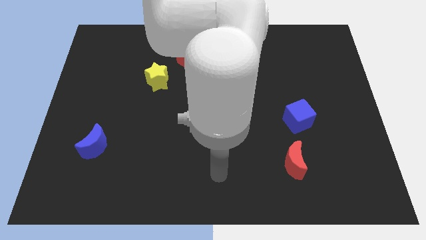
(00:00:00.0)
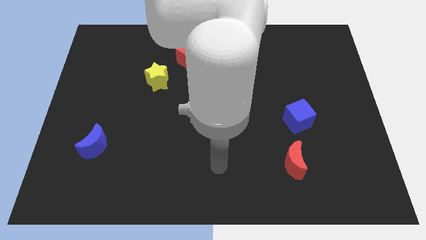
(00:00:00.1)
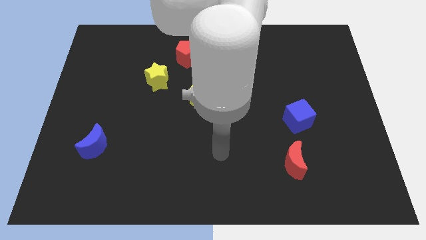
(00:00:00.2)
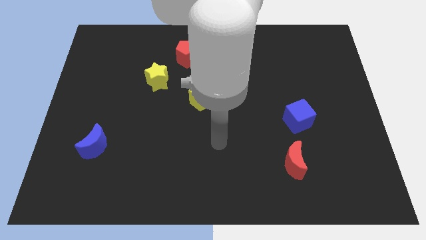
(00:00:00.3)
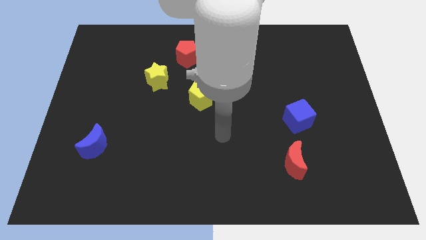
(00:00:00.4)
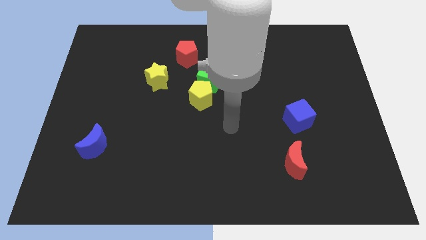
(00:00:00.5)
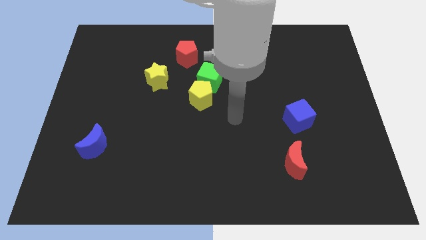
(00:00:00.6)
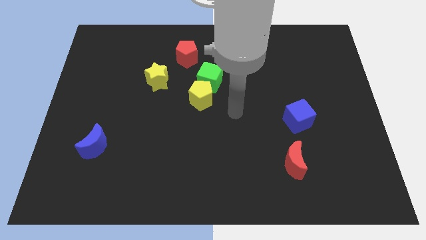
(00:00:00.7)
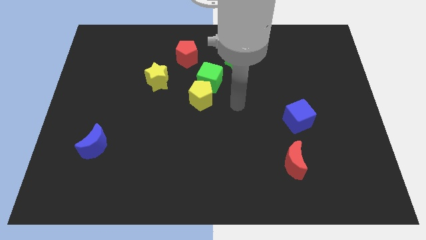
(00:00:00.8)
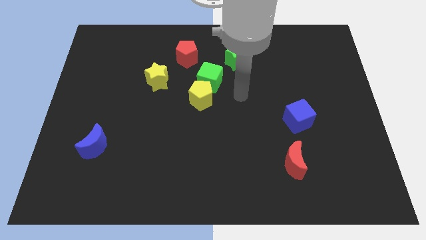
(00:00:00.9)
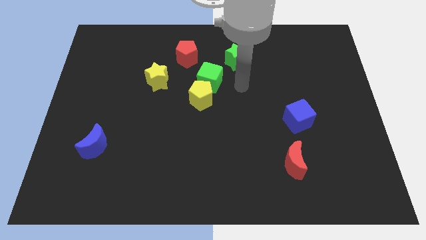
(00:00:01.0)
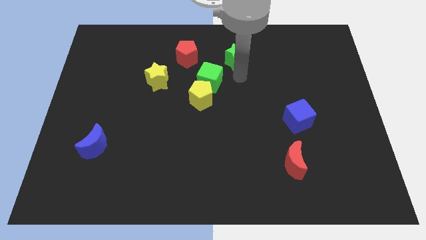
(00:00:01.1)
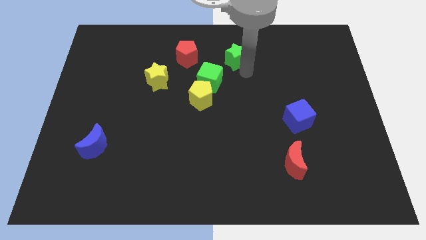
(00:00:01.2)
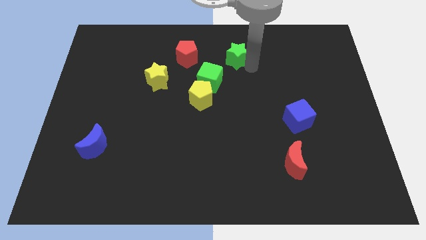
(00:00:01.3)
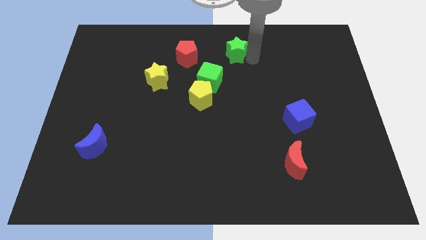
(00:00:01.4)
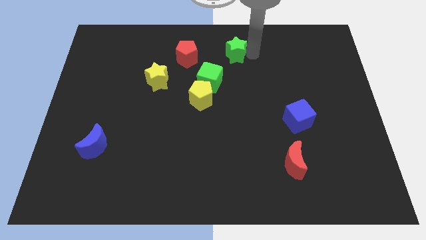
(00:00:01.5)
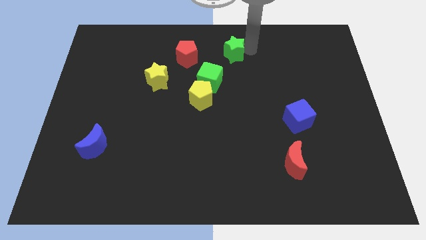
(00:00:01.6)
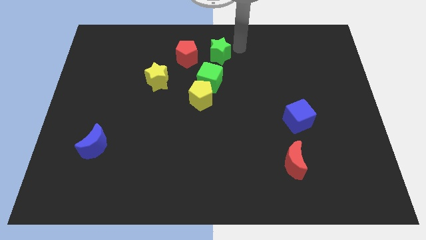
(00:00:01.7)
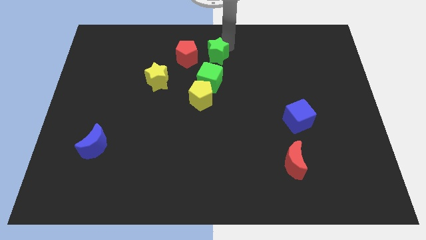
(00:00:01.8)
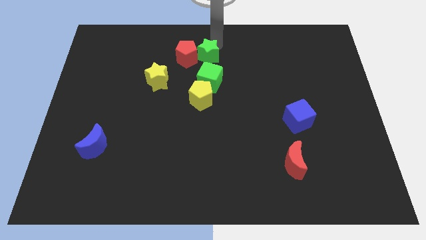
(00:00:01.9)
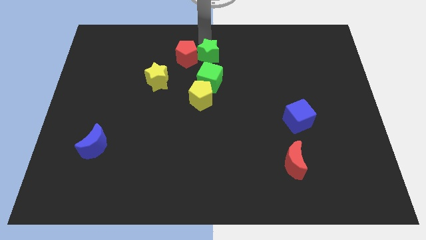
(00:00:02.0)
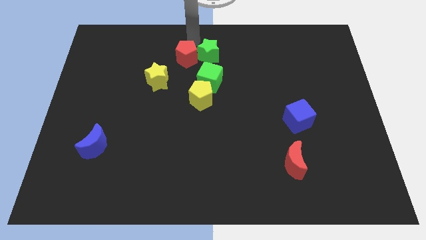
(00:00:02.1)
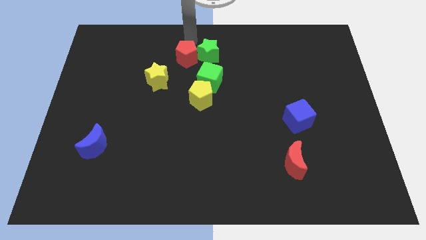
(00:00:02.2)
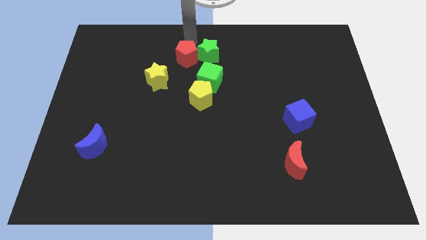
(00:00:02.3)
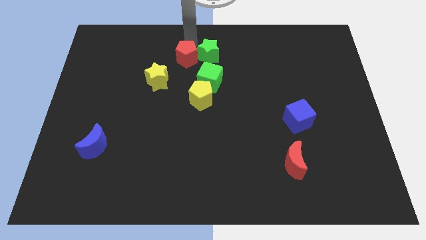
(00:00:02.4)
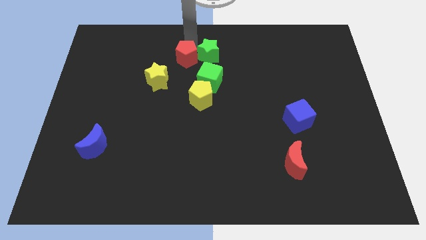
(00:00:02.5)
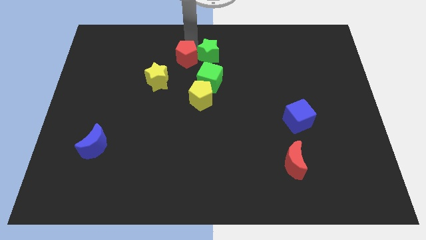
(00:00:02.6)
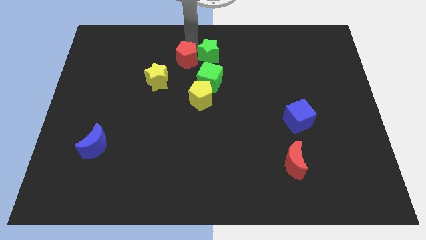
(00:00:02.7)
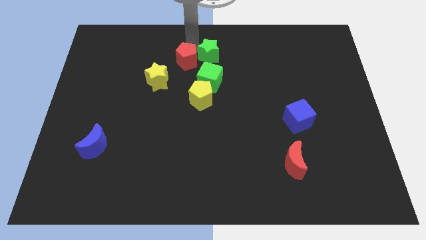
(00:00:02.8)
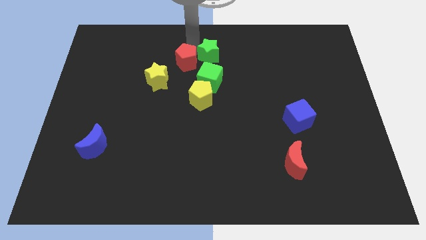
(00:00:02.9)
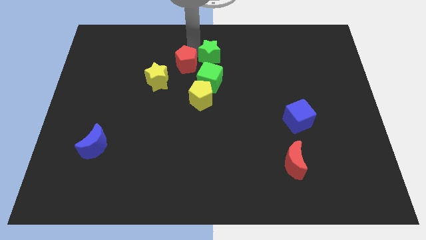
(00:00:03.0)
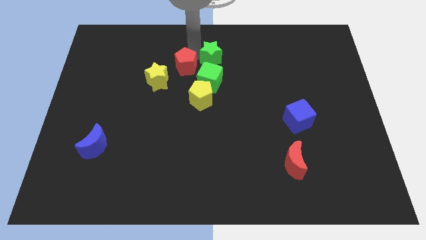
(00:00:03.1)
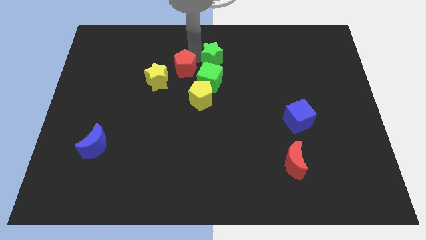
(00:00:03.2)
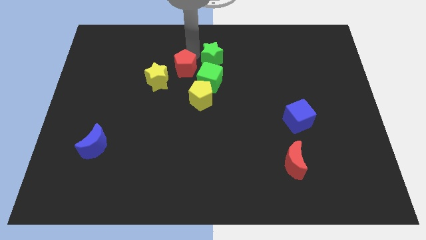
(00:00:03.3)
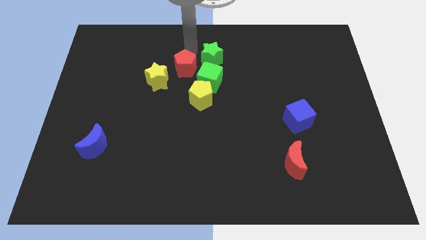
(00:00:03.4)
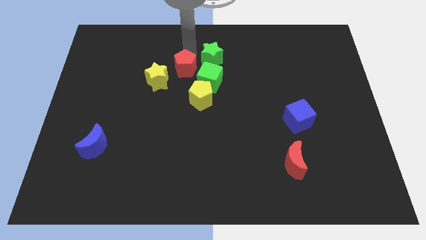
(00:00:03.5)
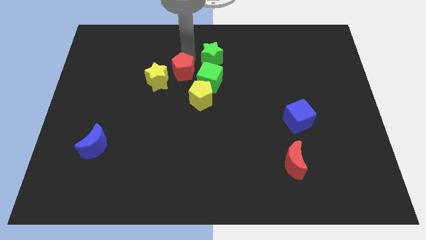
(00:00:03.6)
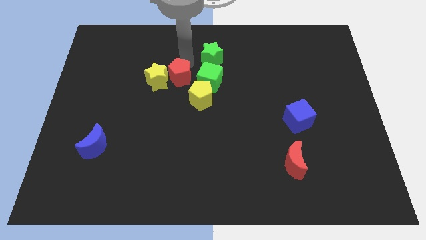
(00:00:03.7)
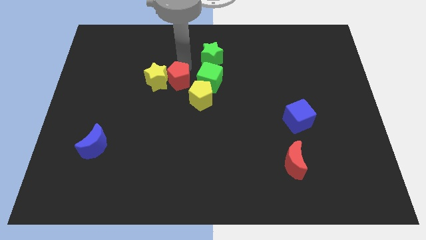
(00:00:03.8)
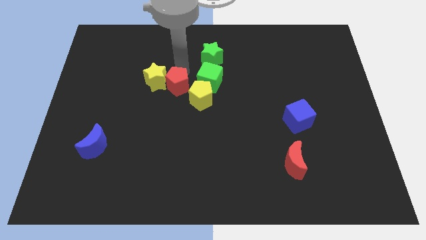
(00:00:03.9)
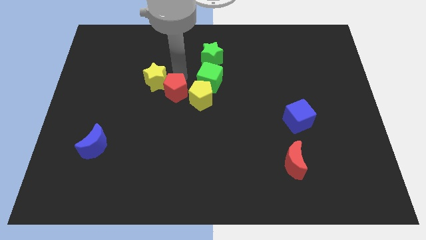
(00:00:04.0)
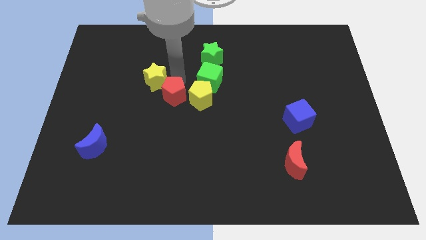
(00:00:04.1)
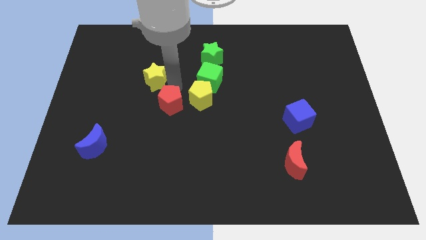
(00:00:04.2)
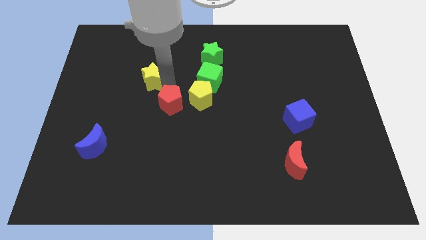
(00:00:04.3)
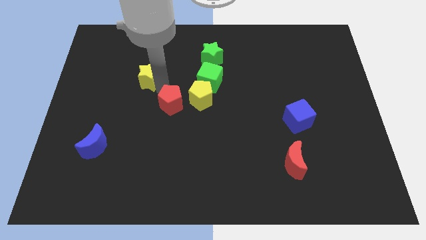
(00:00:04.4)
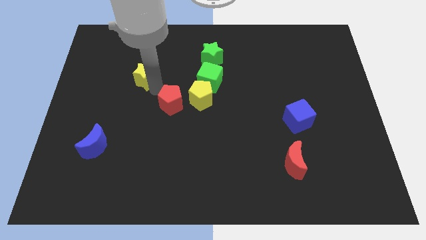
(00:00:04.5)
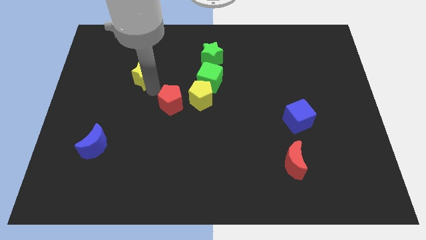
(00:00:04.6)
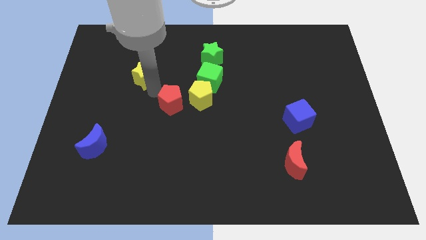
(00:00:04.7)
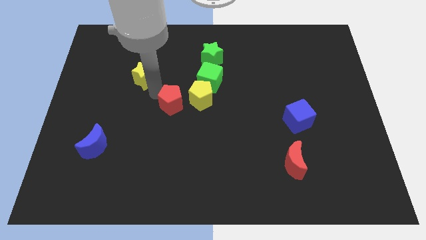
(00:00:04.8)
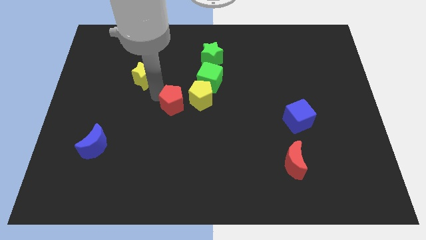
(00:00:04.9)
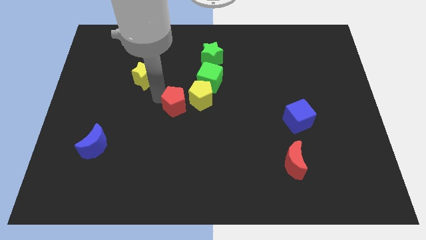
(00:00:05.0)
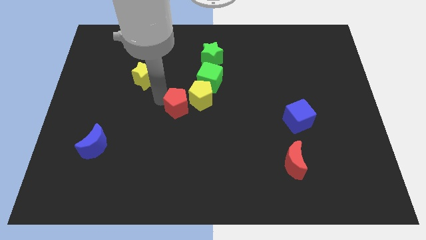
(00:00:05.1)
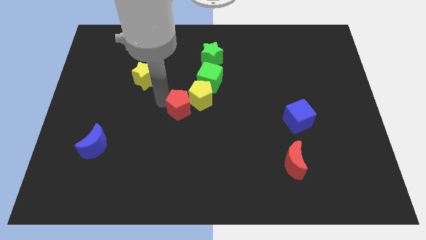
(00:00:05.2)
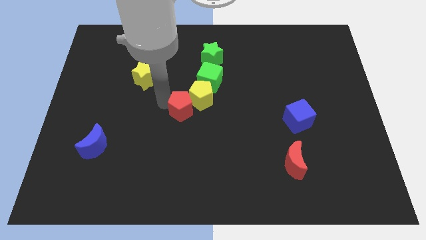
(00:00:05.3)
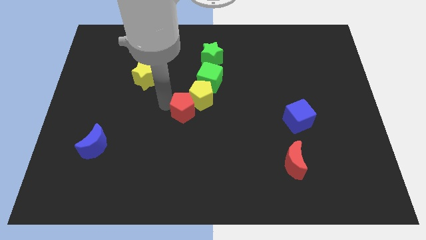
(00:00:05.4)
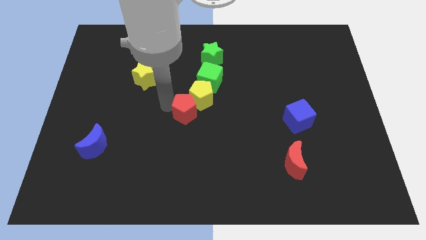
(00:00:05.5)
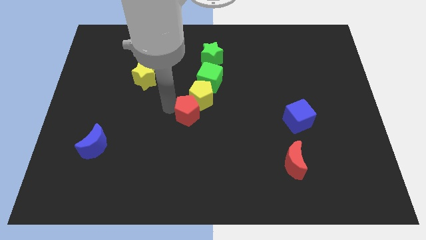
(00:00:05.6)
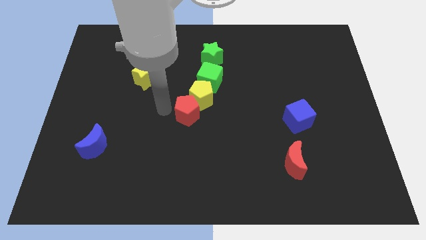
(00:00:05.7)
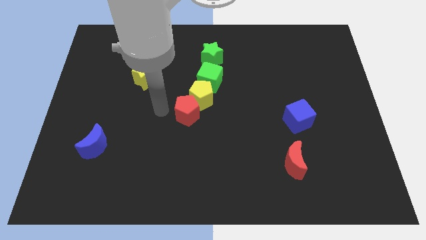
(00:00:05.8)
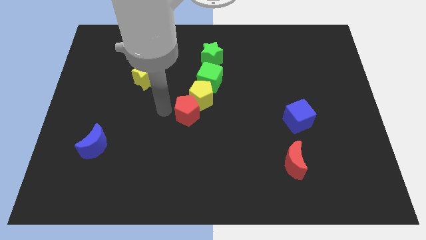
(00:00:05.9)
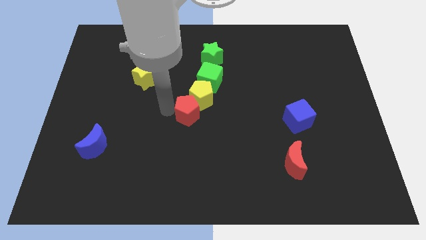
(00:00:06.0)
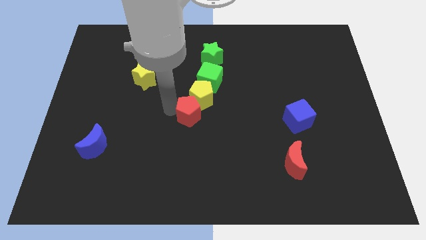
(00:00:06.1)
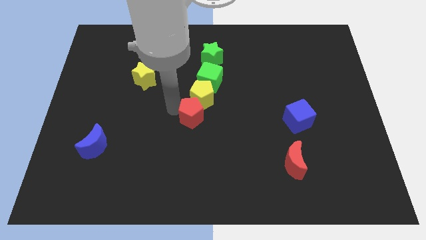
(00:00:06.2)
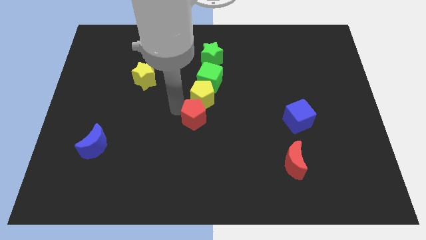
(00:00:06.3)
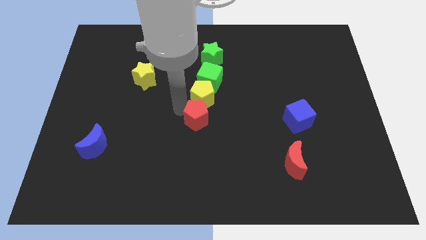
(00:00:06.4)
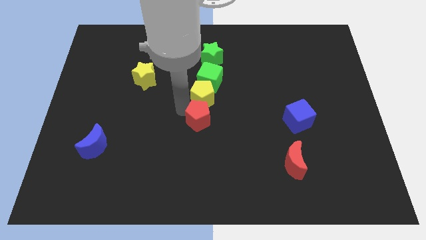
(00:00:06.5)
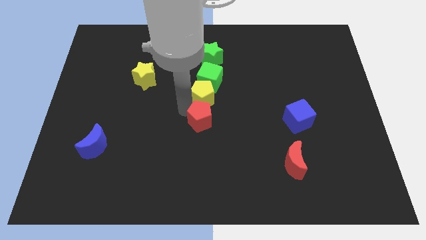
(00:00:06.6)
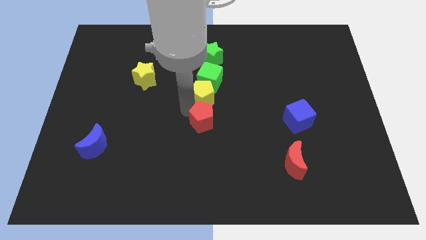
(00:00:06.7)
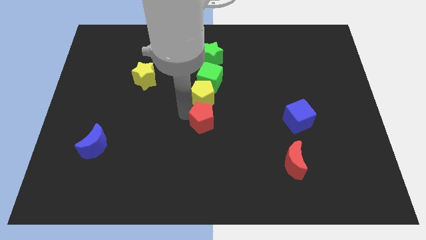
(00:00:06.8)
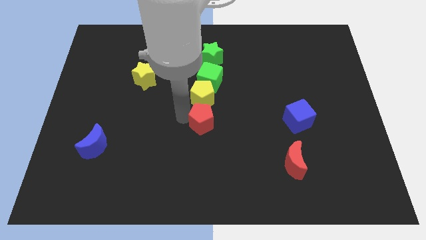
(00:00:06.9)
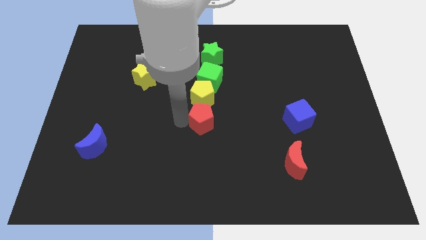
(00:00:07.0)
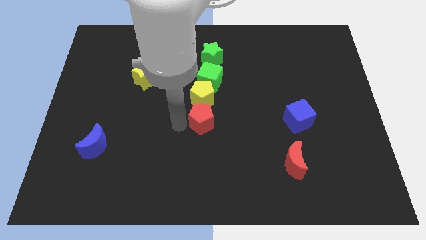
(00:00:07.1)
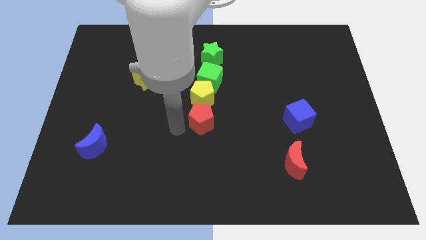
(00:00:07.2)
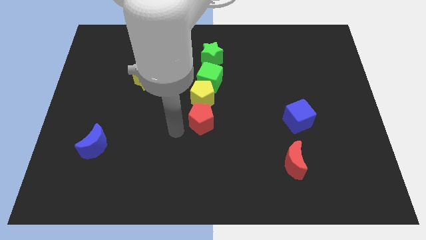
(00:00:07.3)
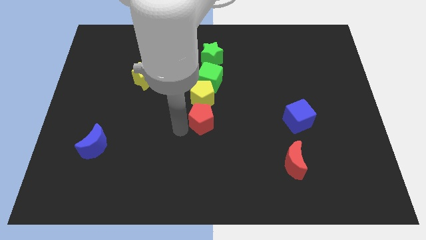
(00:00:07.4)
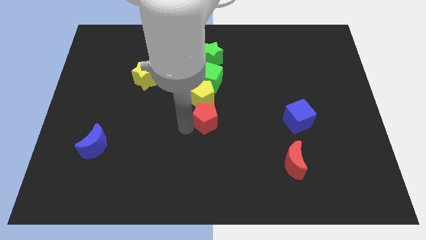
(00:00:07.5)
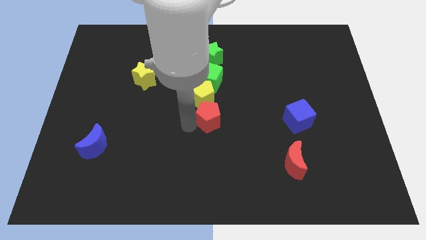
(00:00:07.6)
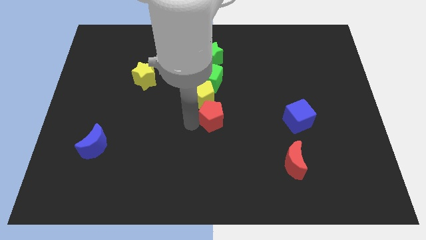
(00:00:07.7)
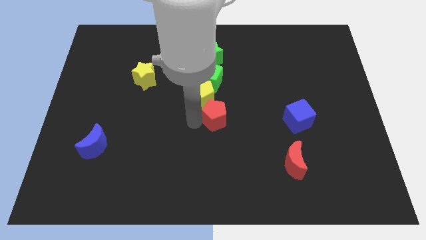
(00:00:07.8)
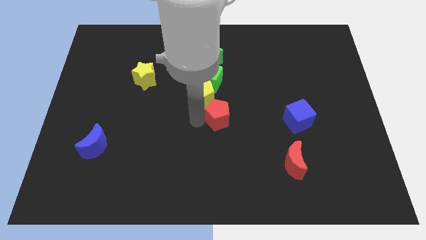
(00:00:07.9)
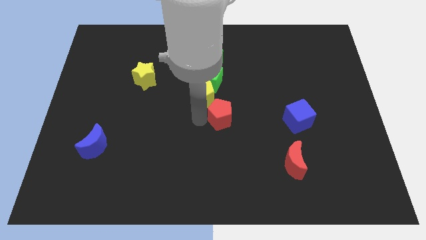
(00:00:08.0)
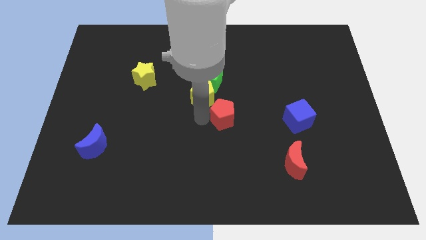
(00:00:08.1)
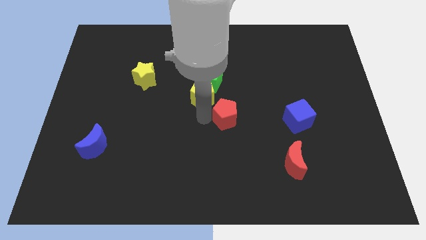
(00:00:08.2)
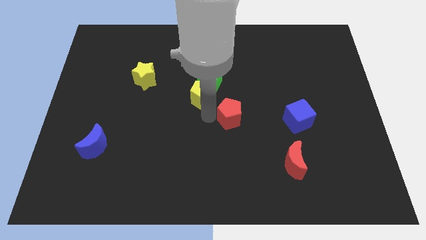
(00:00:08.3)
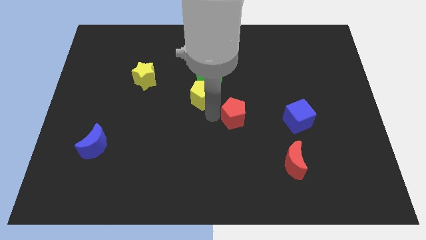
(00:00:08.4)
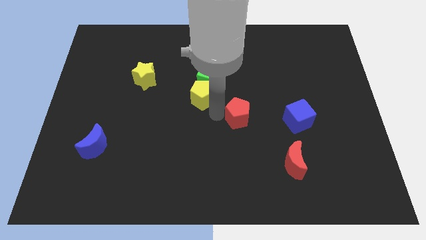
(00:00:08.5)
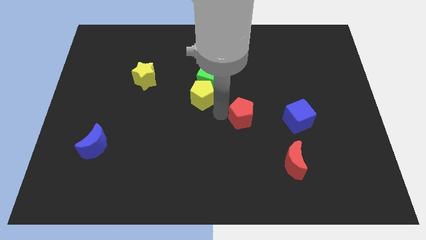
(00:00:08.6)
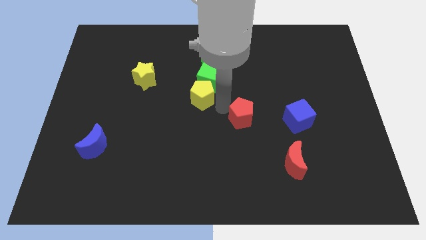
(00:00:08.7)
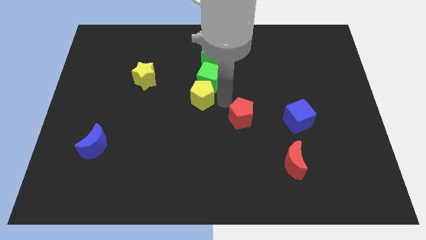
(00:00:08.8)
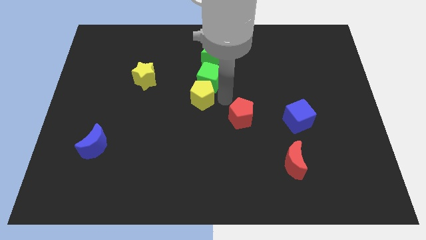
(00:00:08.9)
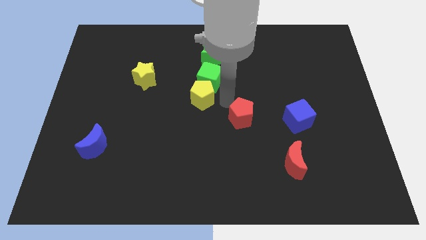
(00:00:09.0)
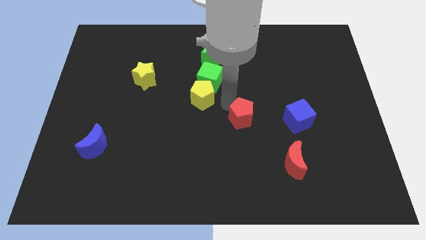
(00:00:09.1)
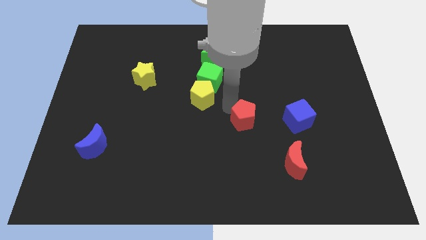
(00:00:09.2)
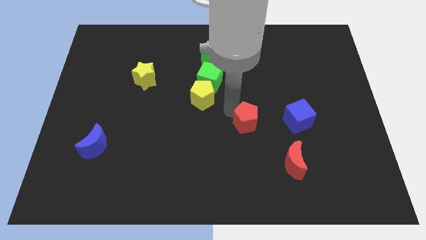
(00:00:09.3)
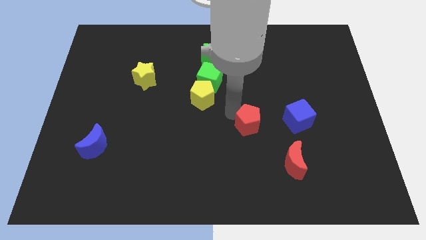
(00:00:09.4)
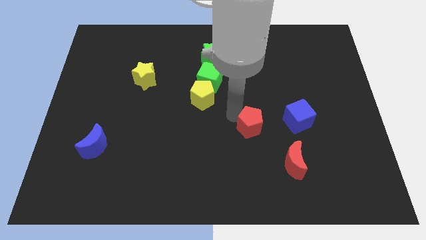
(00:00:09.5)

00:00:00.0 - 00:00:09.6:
slide the red pentagon to the top left side of the red moon
